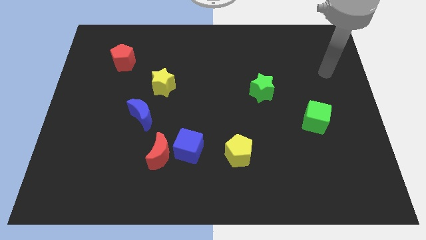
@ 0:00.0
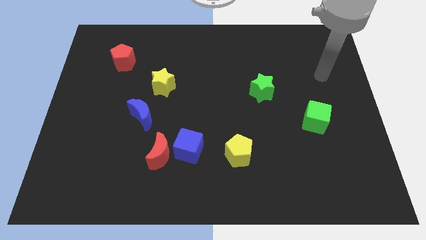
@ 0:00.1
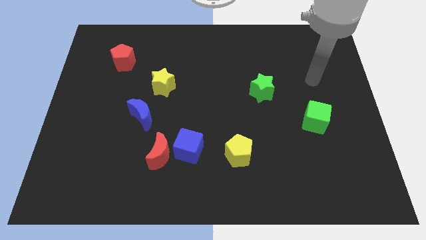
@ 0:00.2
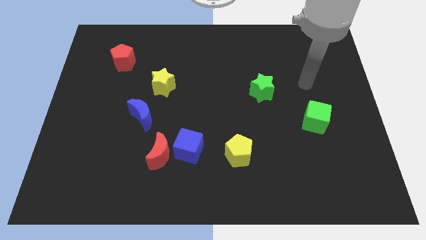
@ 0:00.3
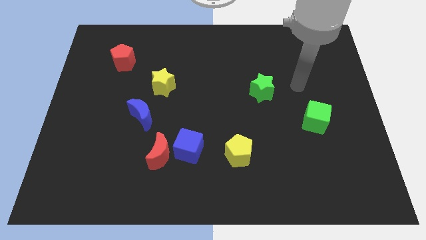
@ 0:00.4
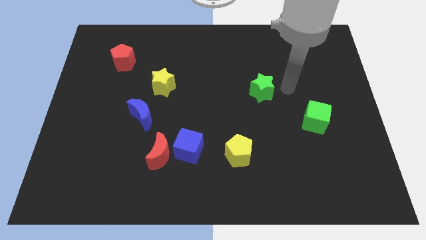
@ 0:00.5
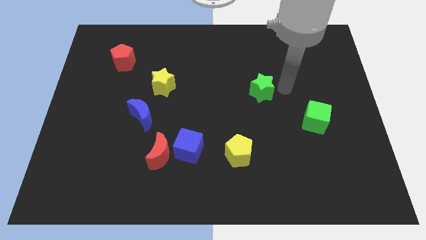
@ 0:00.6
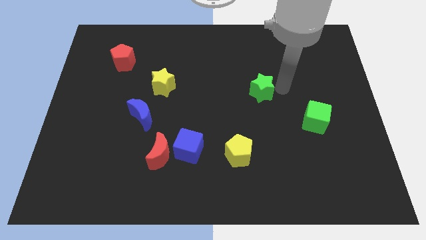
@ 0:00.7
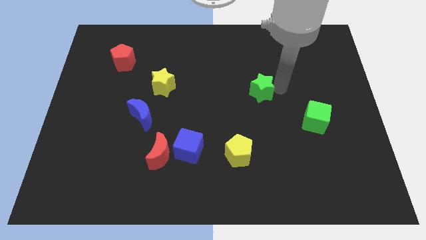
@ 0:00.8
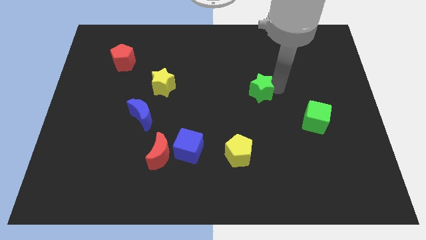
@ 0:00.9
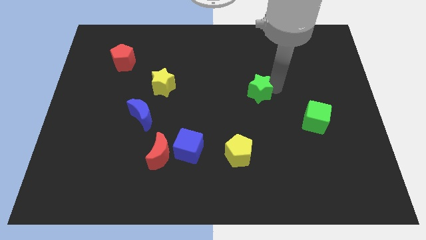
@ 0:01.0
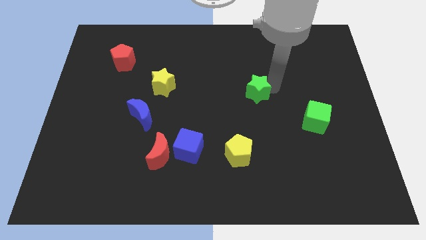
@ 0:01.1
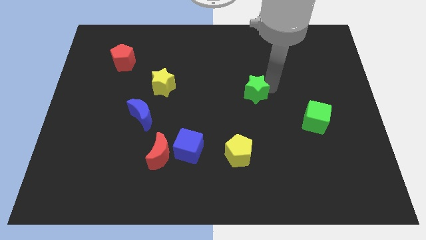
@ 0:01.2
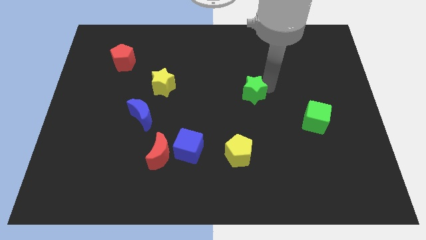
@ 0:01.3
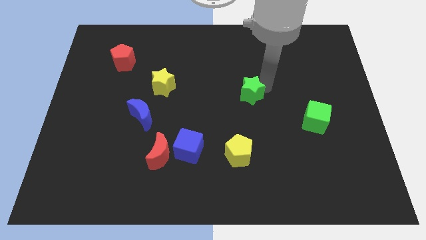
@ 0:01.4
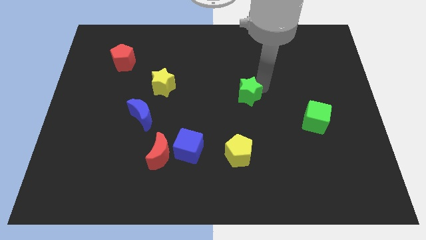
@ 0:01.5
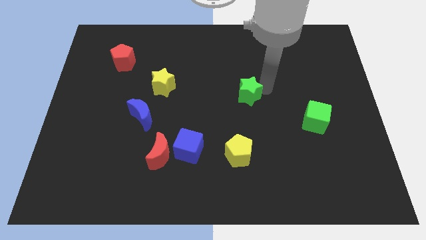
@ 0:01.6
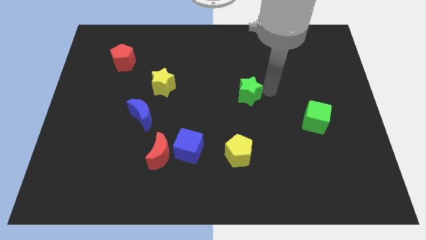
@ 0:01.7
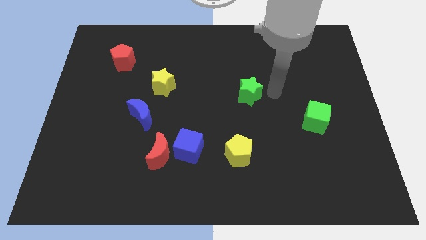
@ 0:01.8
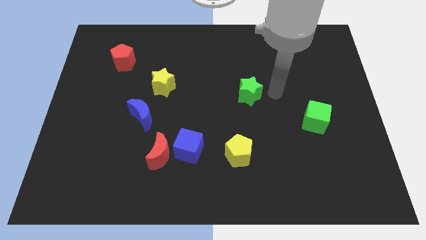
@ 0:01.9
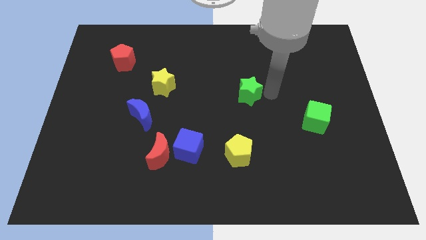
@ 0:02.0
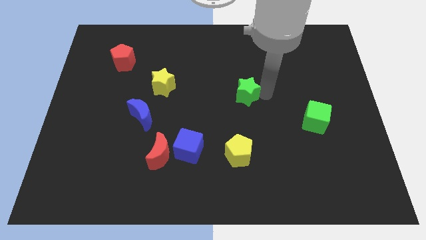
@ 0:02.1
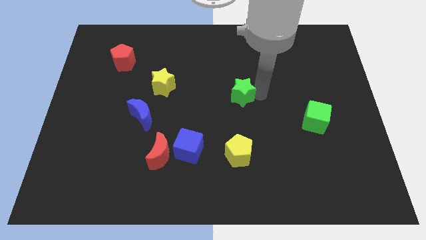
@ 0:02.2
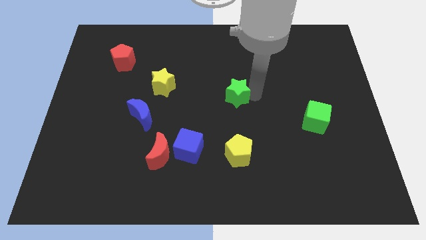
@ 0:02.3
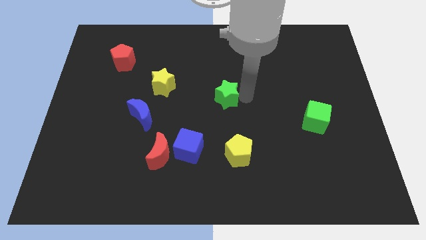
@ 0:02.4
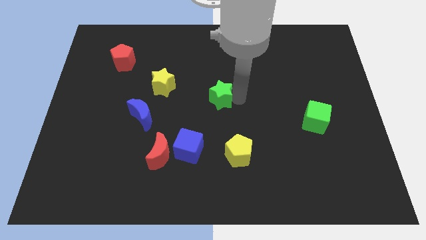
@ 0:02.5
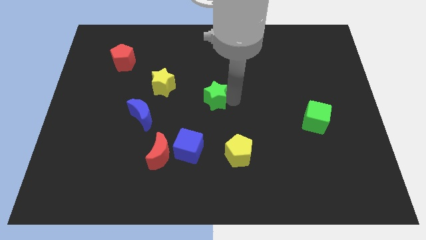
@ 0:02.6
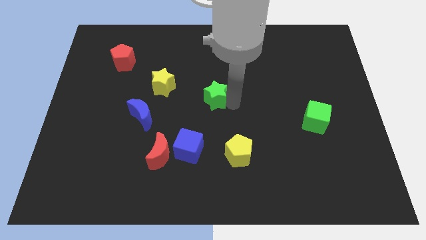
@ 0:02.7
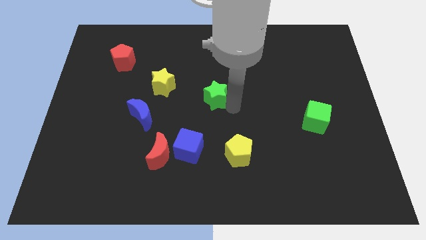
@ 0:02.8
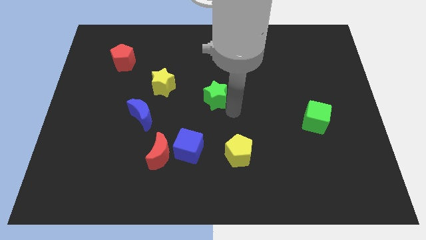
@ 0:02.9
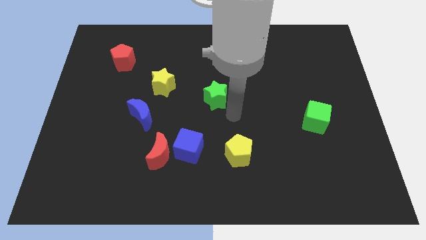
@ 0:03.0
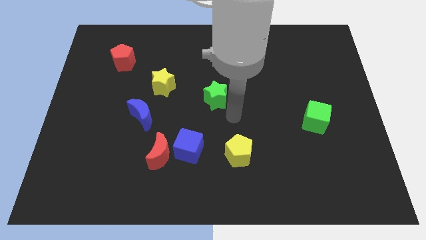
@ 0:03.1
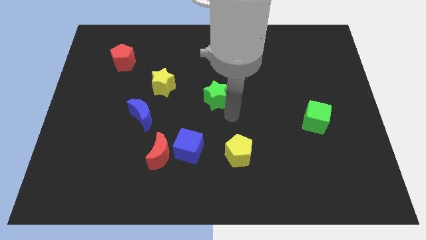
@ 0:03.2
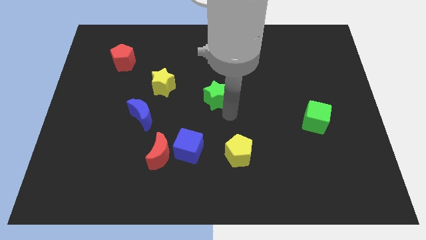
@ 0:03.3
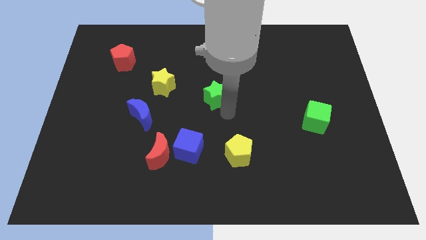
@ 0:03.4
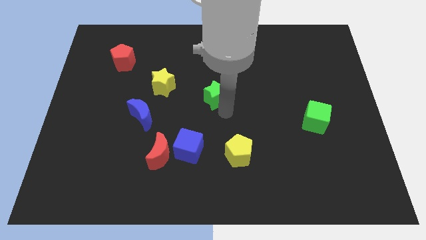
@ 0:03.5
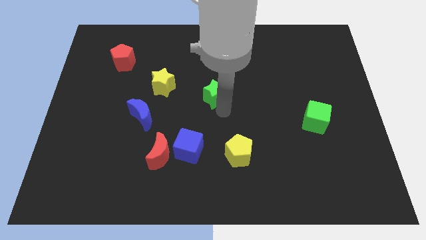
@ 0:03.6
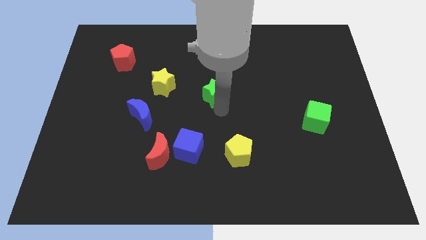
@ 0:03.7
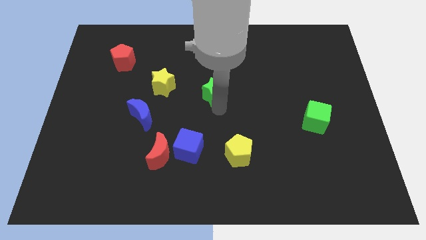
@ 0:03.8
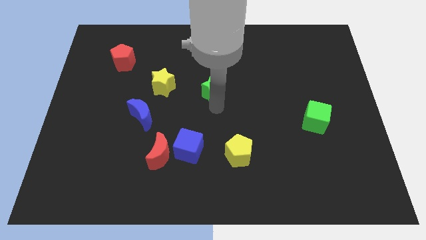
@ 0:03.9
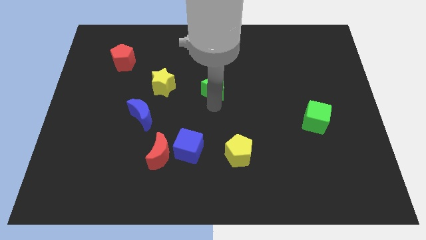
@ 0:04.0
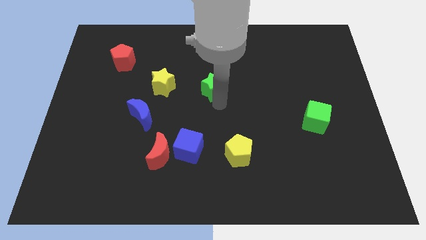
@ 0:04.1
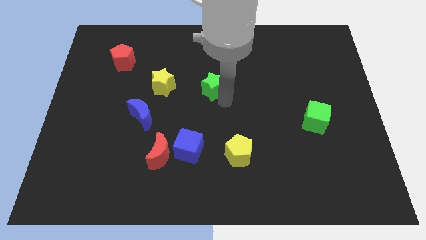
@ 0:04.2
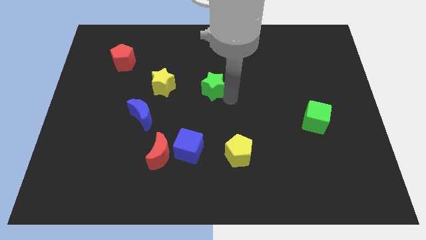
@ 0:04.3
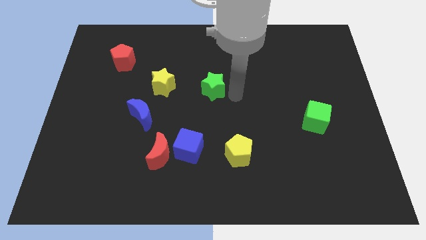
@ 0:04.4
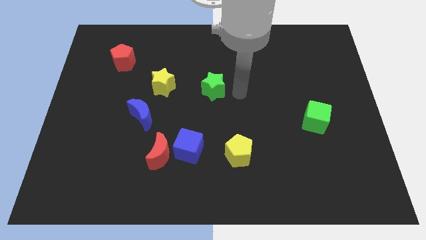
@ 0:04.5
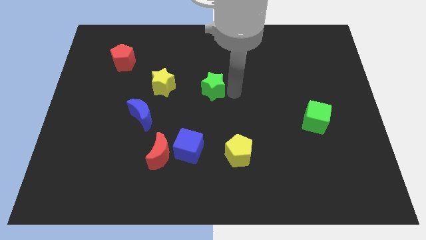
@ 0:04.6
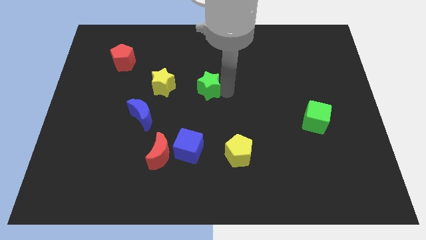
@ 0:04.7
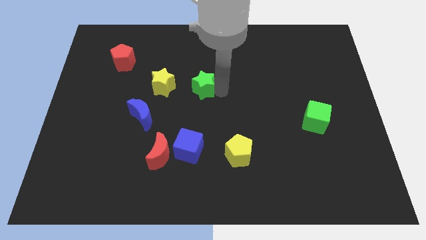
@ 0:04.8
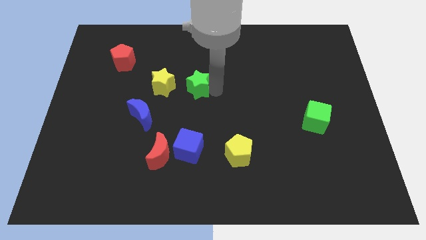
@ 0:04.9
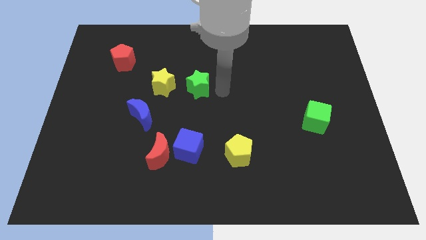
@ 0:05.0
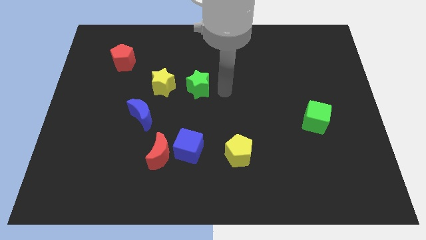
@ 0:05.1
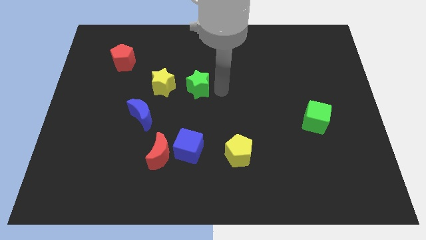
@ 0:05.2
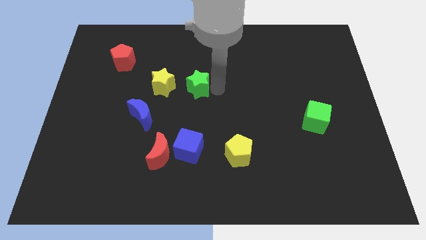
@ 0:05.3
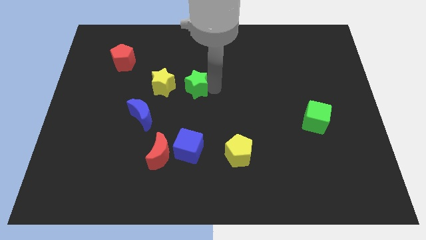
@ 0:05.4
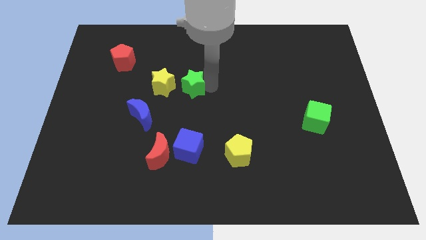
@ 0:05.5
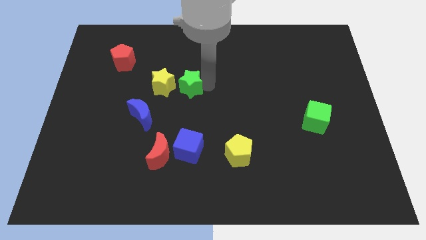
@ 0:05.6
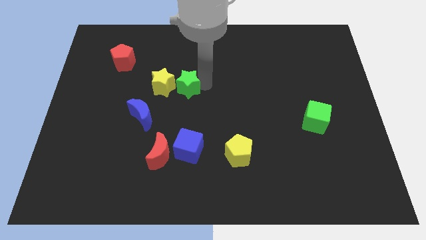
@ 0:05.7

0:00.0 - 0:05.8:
slide the green star close to the yellow star

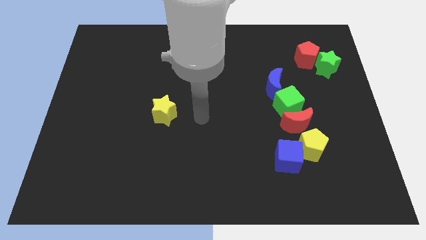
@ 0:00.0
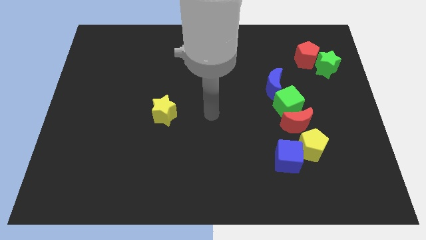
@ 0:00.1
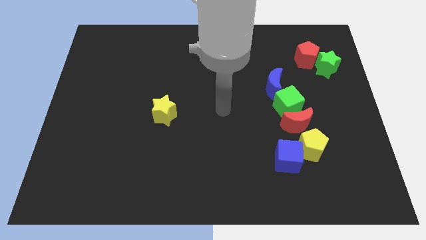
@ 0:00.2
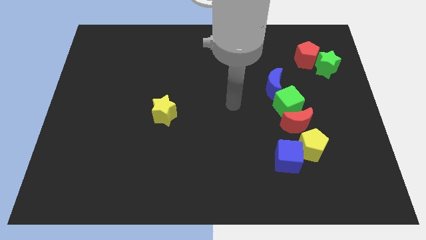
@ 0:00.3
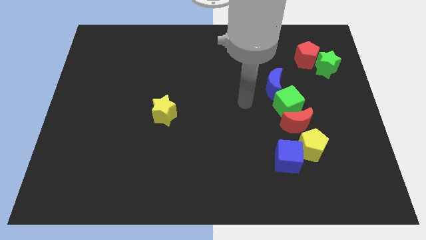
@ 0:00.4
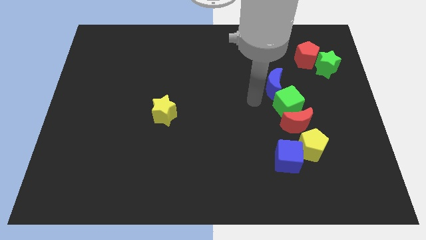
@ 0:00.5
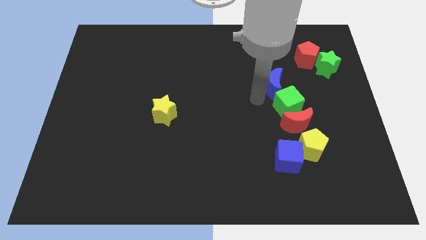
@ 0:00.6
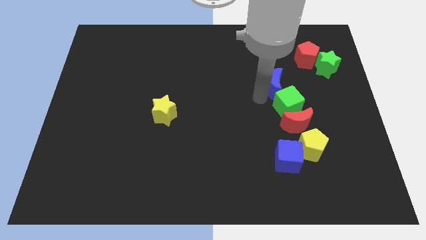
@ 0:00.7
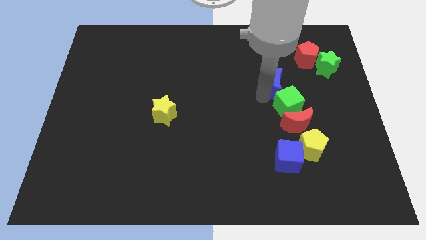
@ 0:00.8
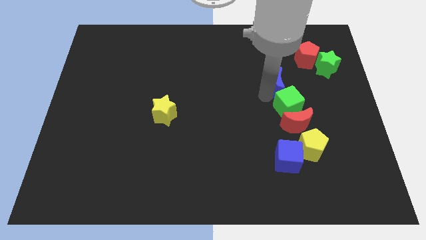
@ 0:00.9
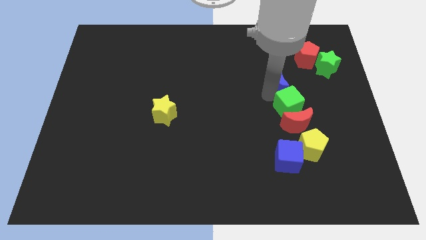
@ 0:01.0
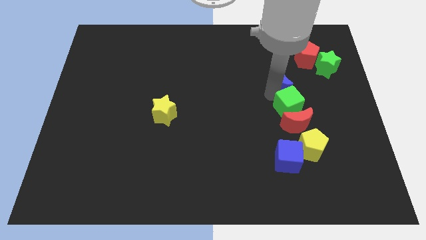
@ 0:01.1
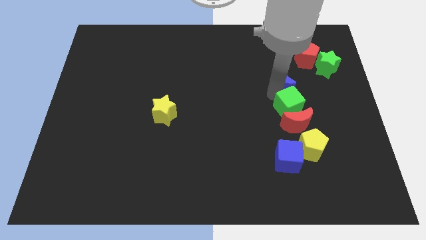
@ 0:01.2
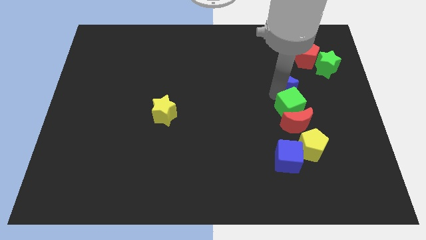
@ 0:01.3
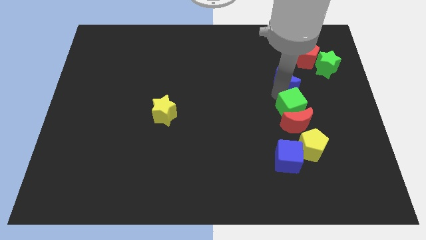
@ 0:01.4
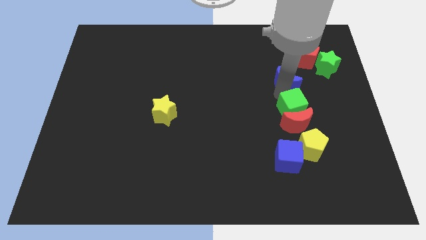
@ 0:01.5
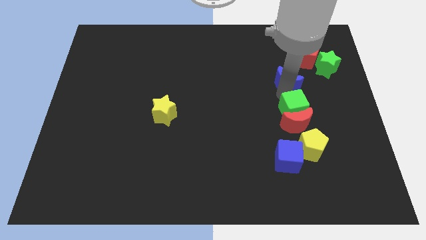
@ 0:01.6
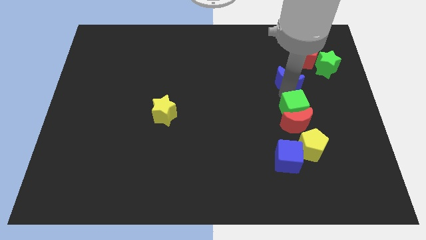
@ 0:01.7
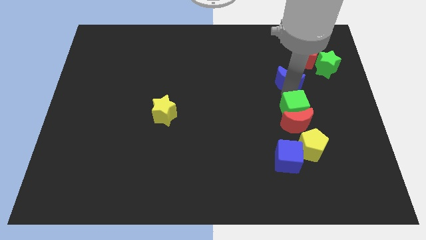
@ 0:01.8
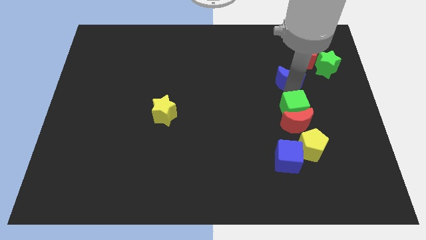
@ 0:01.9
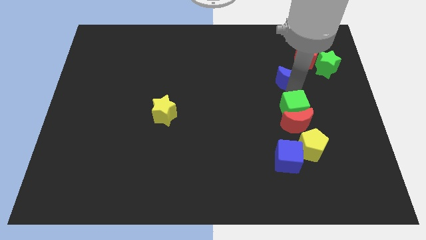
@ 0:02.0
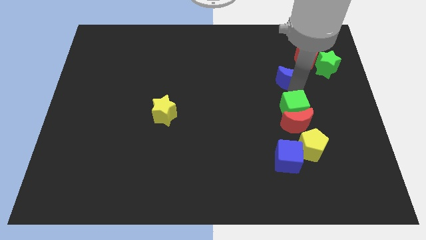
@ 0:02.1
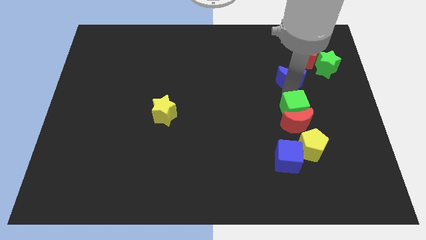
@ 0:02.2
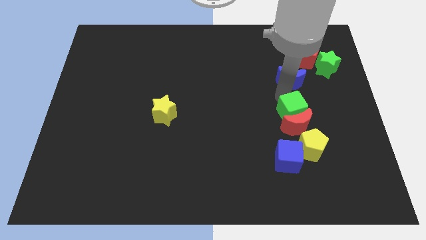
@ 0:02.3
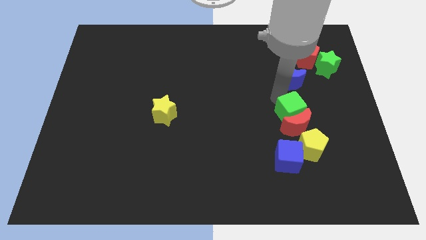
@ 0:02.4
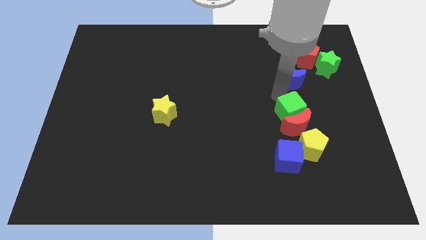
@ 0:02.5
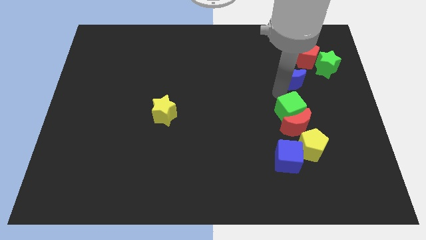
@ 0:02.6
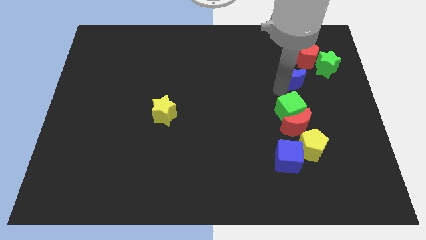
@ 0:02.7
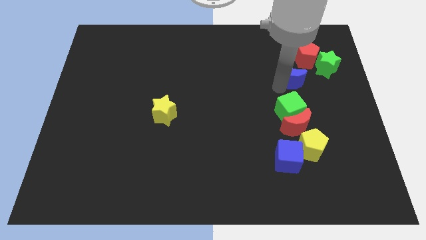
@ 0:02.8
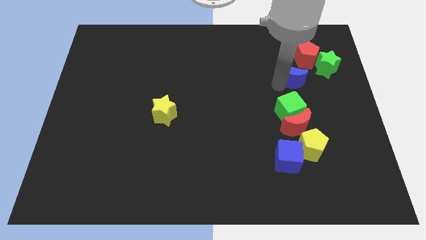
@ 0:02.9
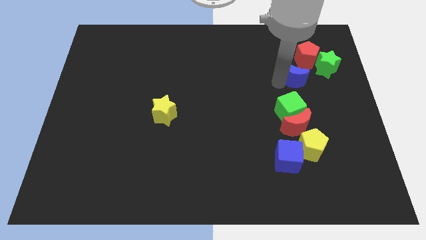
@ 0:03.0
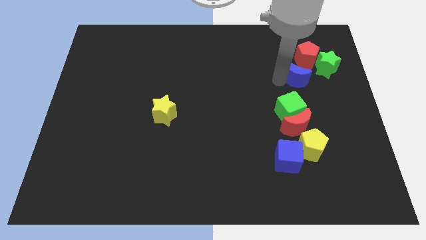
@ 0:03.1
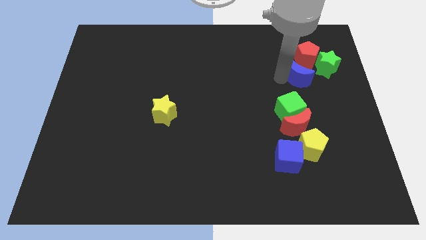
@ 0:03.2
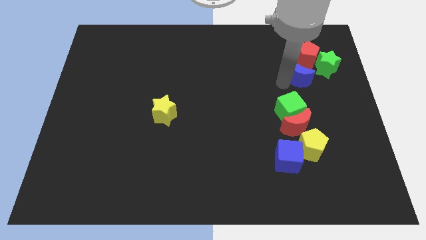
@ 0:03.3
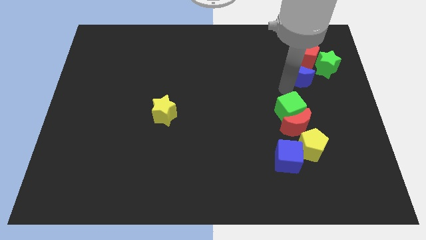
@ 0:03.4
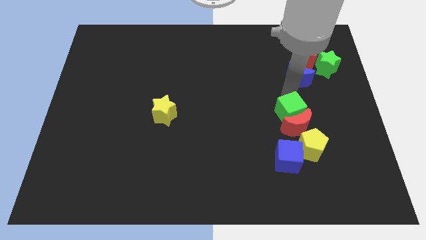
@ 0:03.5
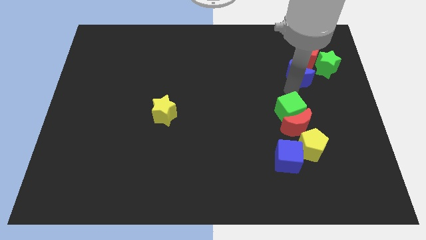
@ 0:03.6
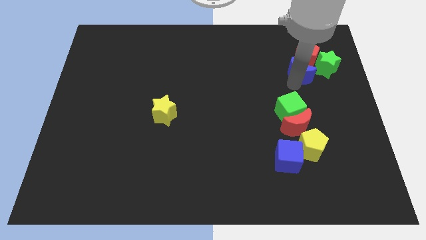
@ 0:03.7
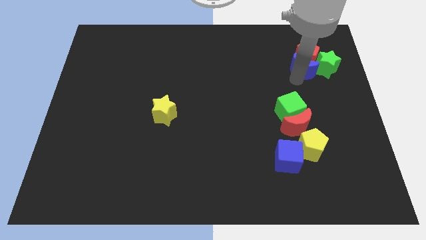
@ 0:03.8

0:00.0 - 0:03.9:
move the blue moon to the red pentagon
